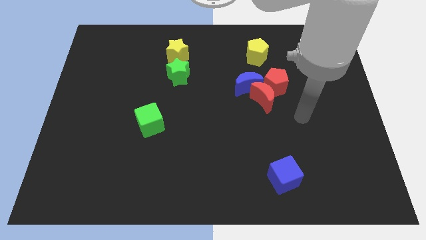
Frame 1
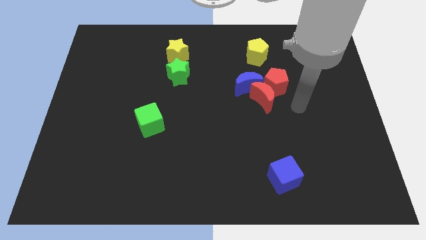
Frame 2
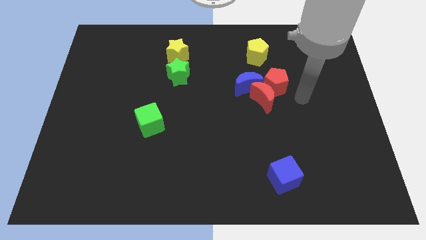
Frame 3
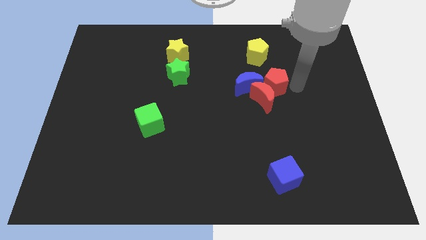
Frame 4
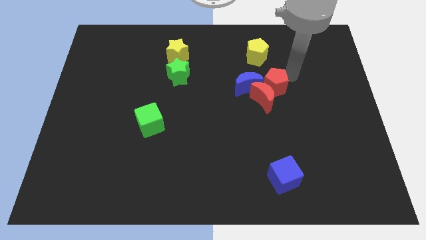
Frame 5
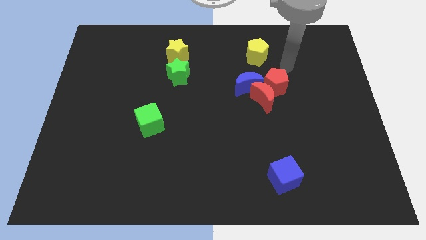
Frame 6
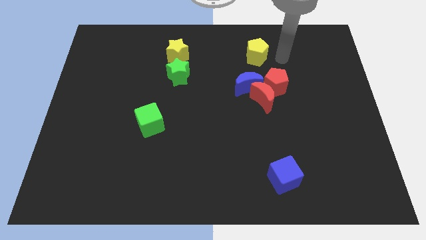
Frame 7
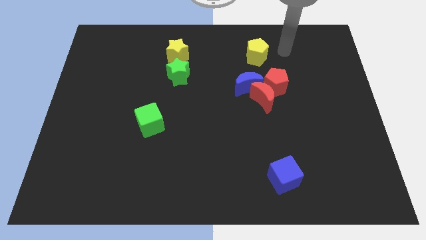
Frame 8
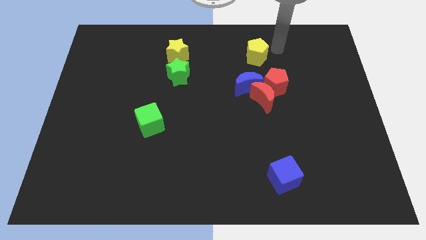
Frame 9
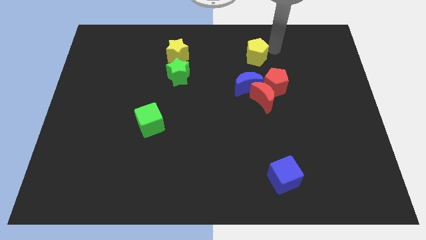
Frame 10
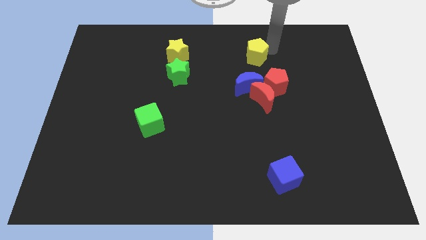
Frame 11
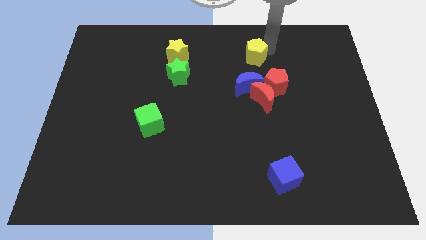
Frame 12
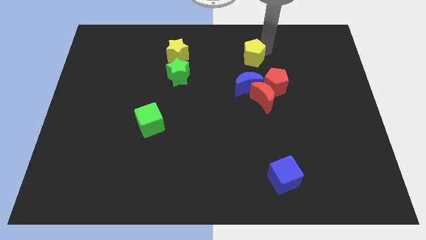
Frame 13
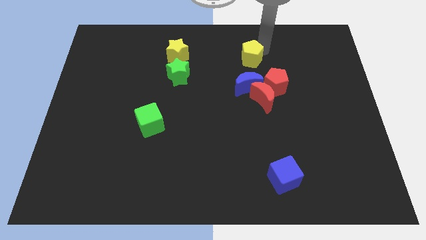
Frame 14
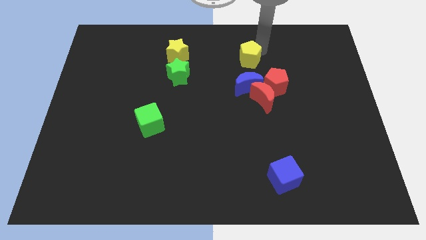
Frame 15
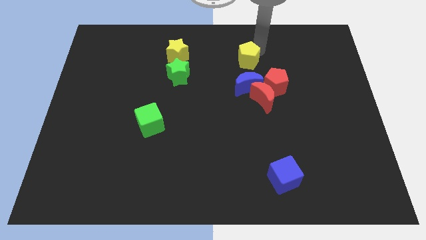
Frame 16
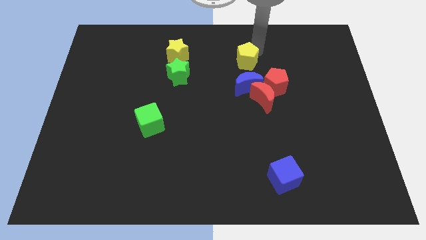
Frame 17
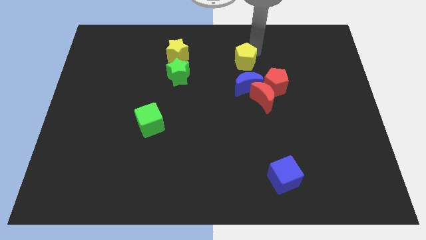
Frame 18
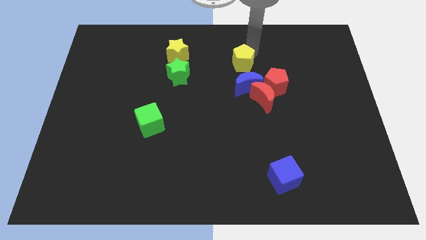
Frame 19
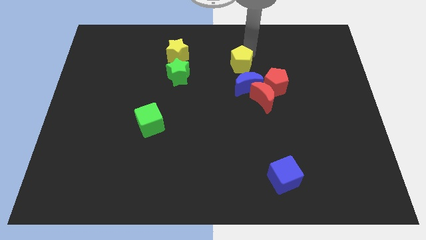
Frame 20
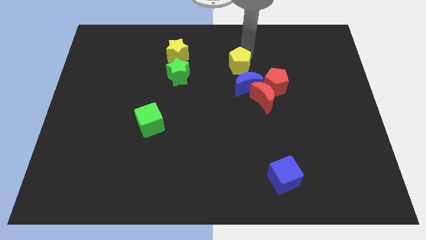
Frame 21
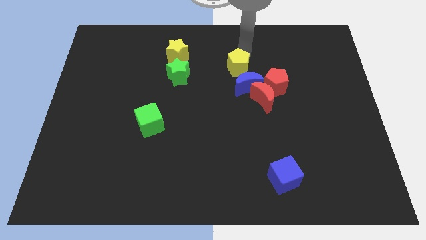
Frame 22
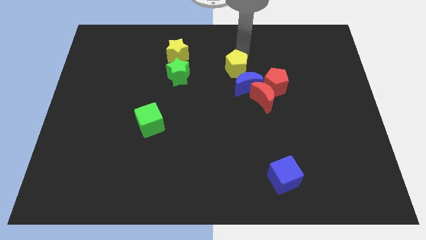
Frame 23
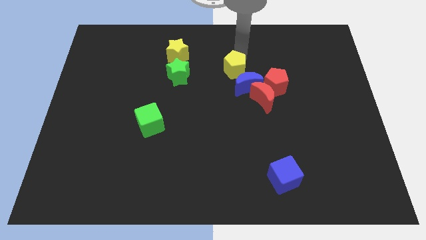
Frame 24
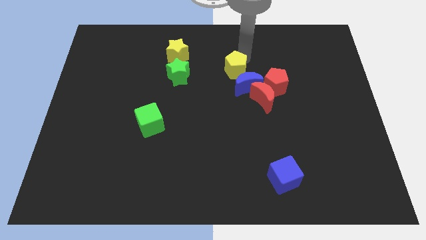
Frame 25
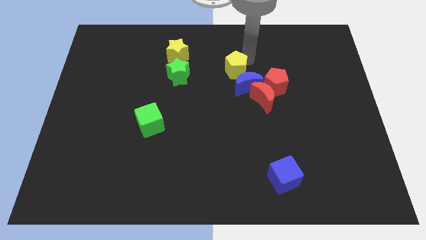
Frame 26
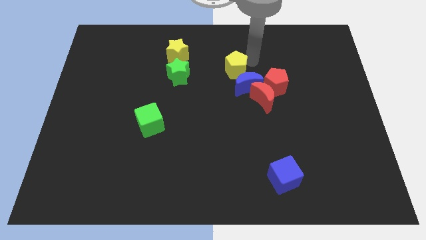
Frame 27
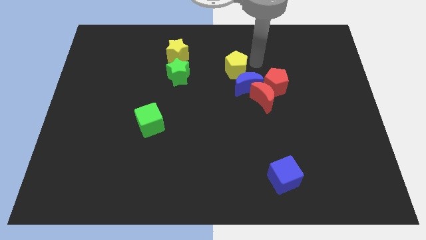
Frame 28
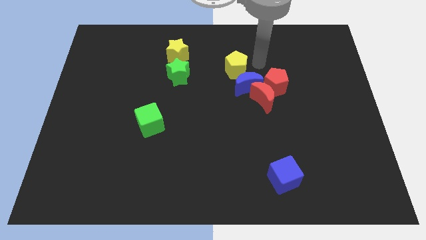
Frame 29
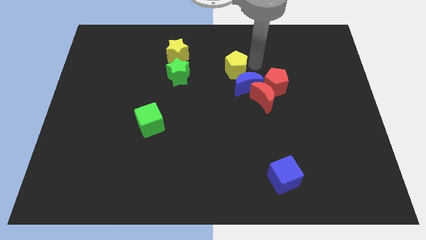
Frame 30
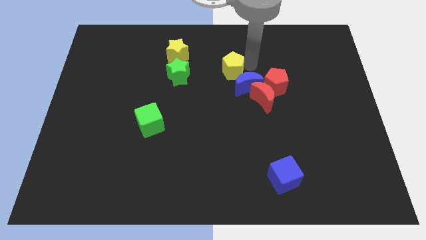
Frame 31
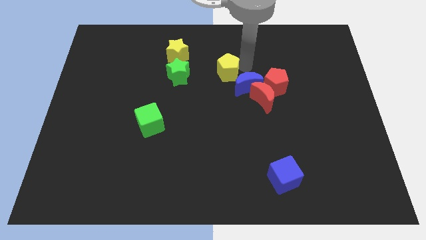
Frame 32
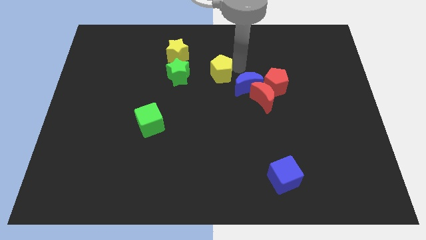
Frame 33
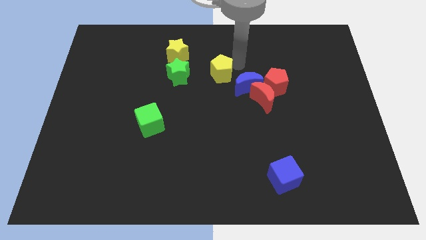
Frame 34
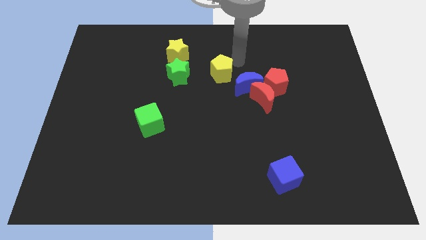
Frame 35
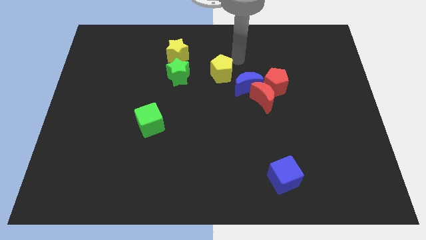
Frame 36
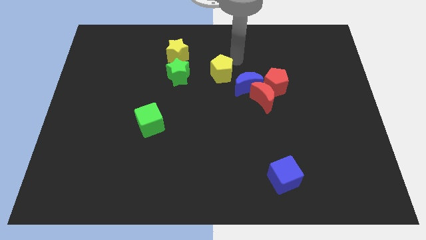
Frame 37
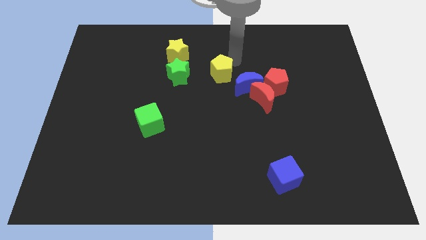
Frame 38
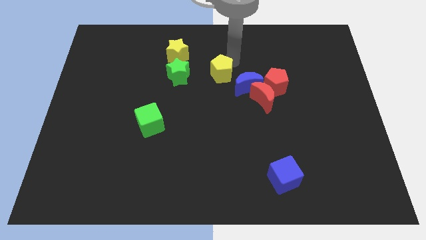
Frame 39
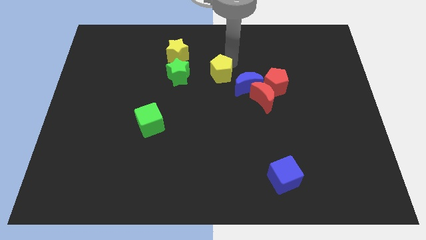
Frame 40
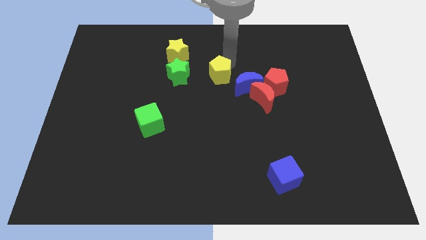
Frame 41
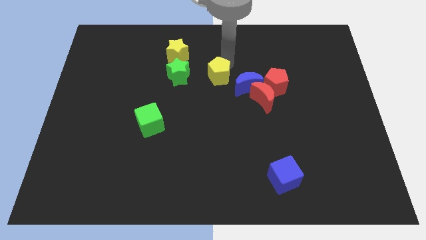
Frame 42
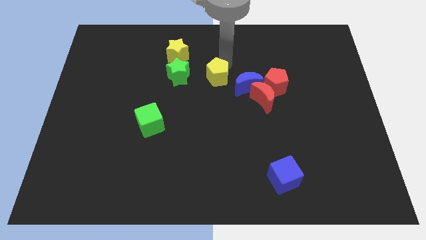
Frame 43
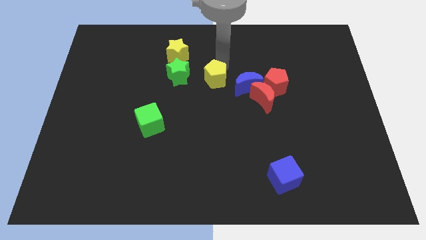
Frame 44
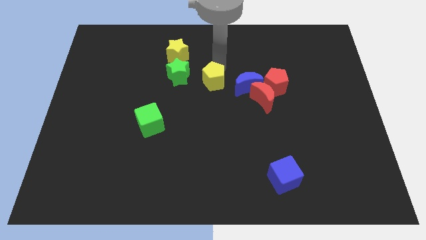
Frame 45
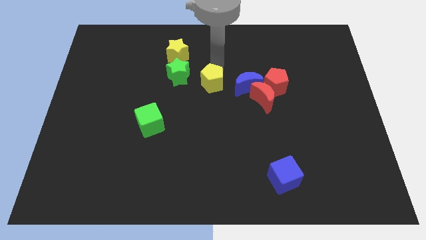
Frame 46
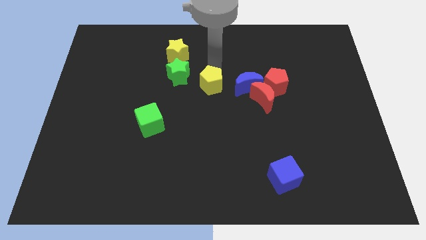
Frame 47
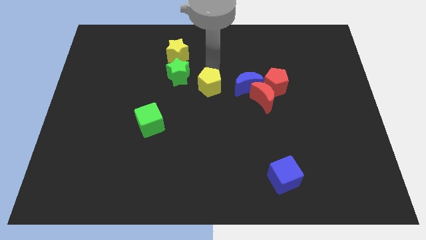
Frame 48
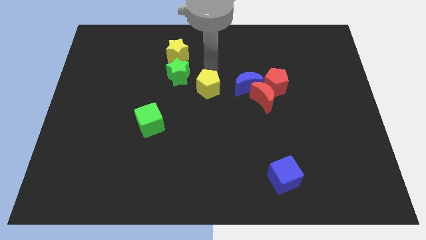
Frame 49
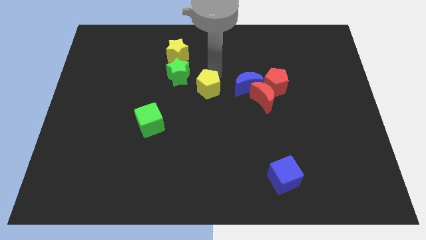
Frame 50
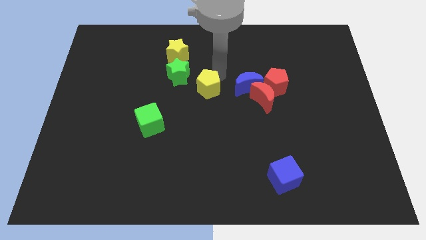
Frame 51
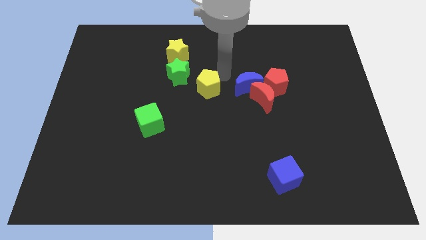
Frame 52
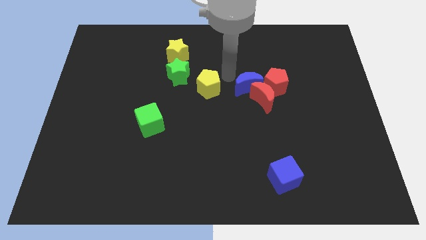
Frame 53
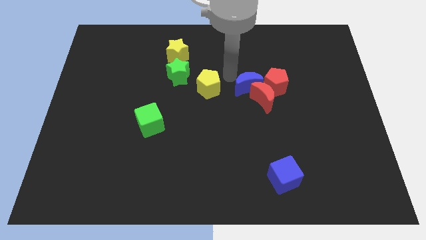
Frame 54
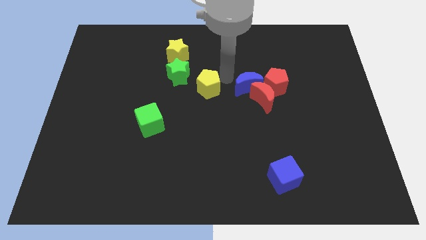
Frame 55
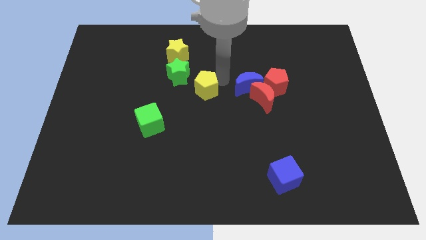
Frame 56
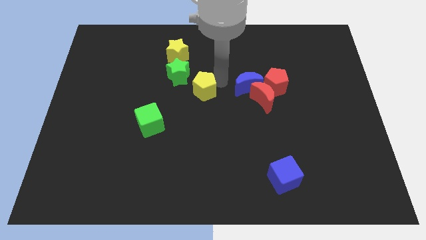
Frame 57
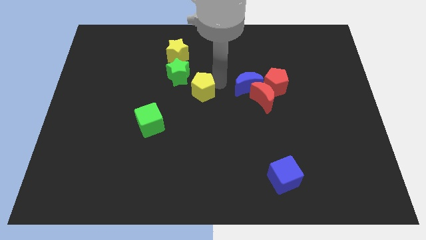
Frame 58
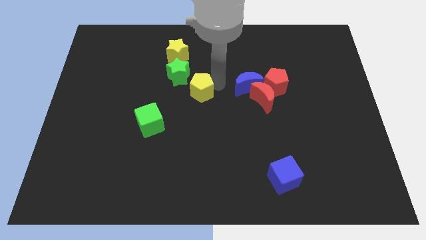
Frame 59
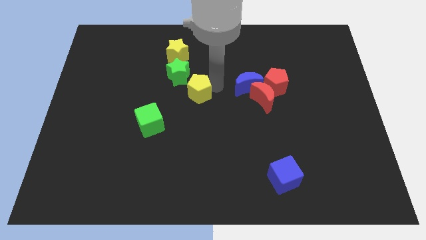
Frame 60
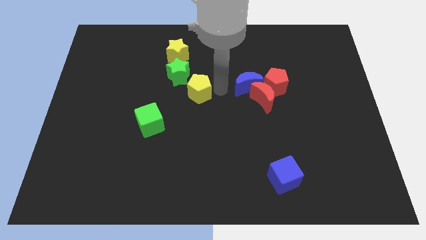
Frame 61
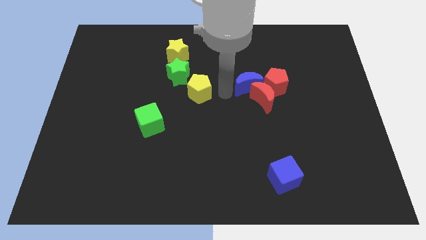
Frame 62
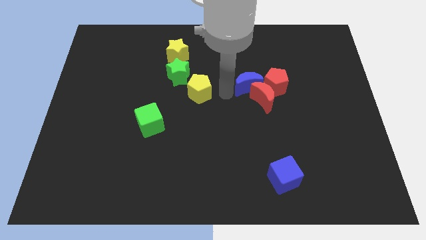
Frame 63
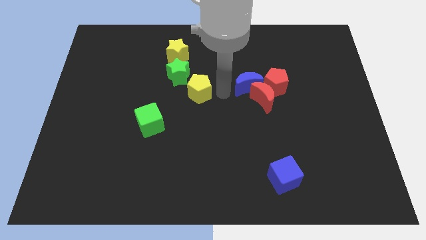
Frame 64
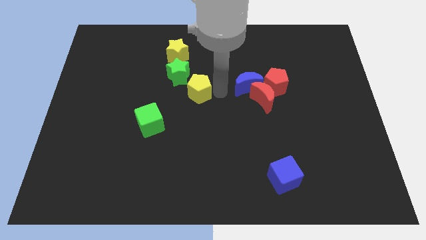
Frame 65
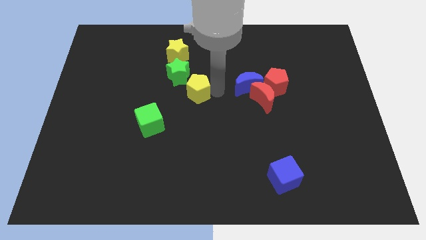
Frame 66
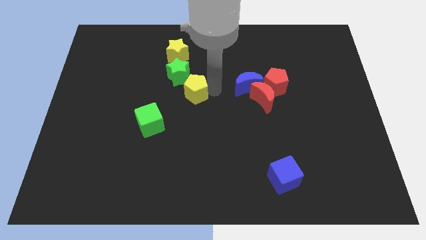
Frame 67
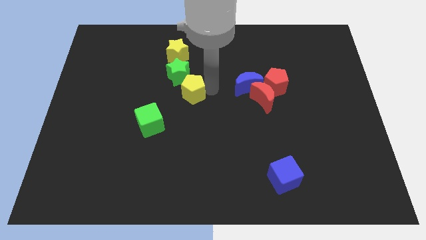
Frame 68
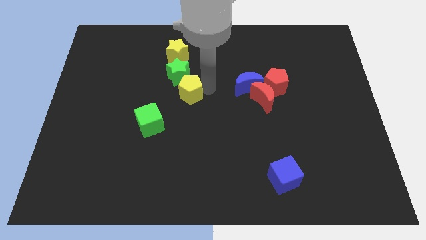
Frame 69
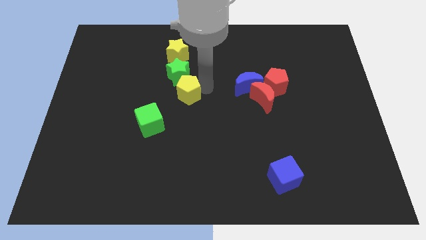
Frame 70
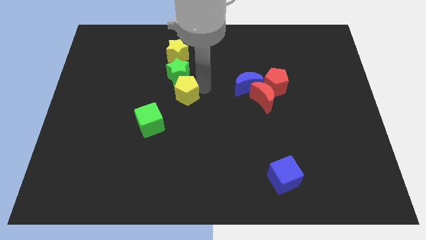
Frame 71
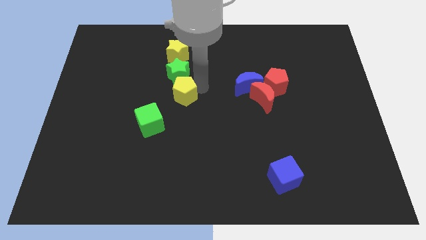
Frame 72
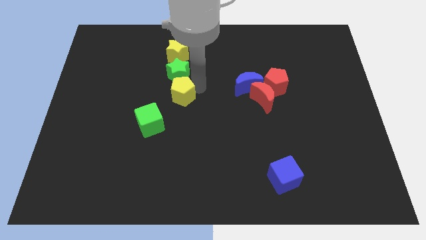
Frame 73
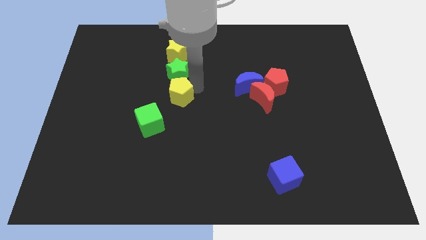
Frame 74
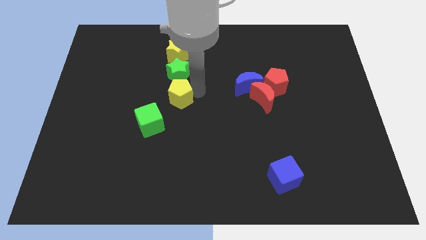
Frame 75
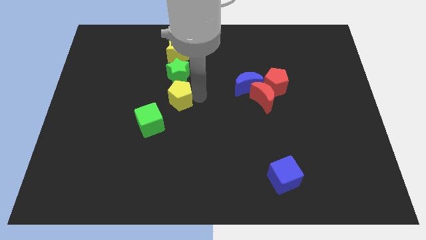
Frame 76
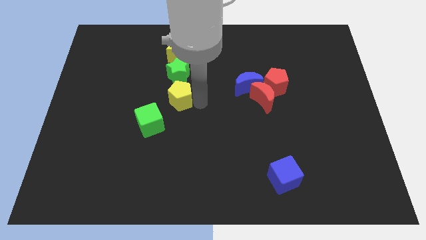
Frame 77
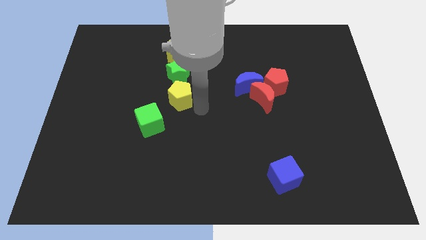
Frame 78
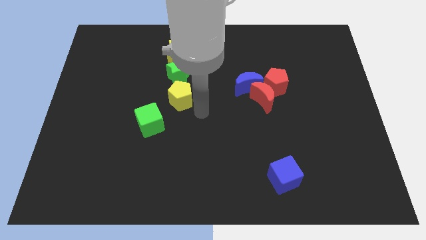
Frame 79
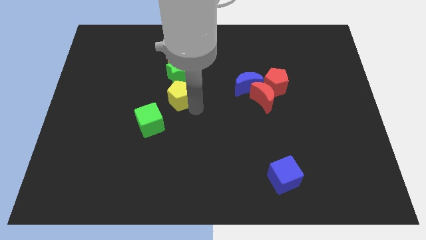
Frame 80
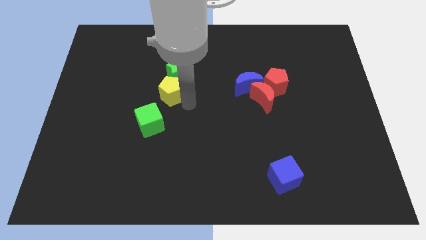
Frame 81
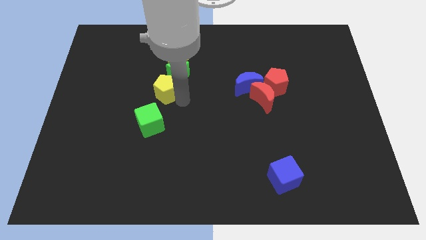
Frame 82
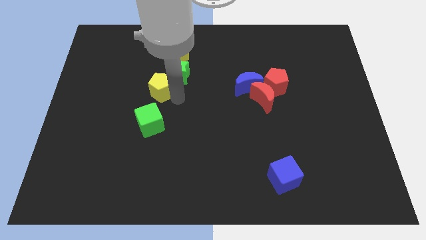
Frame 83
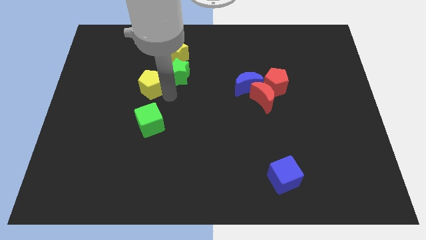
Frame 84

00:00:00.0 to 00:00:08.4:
push the yellow pentagon left
